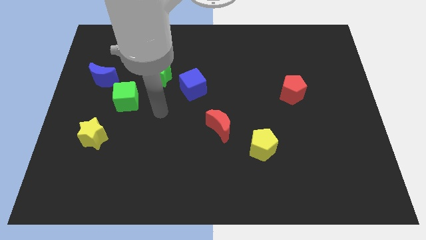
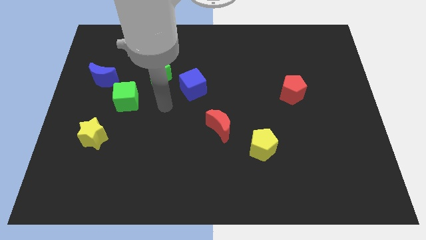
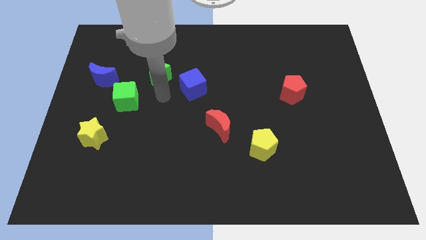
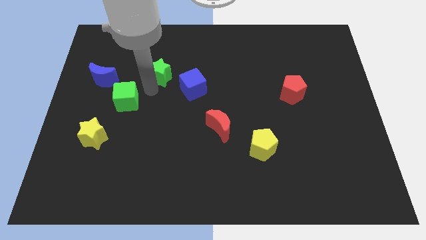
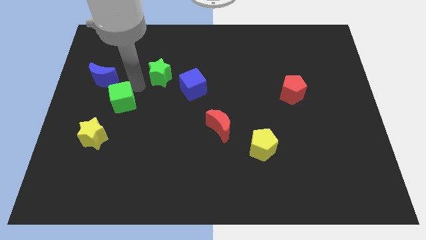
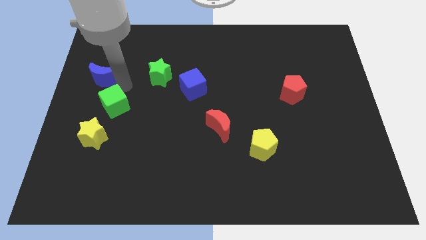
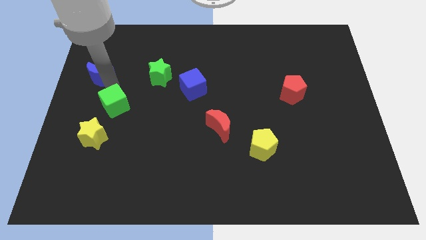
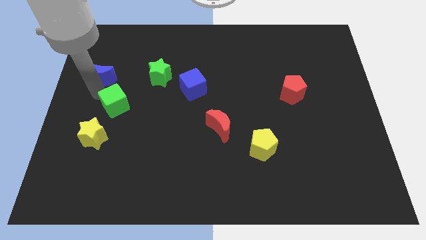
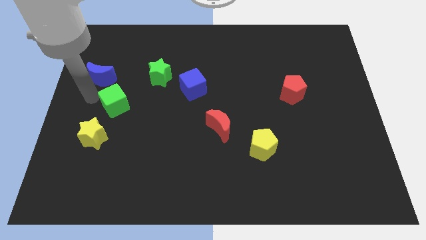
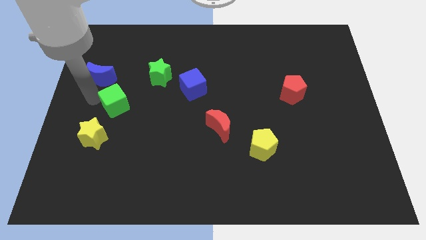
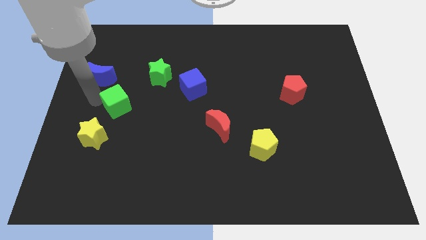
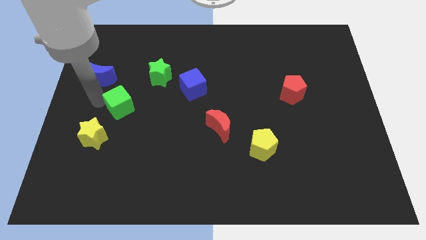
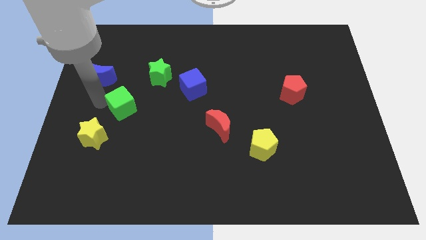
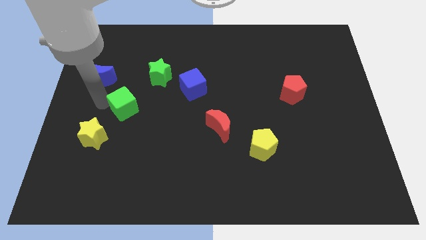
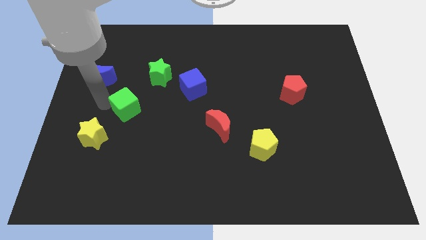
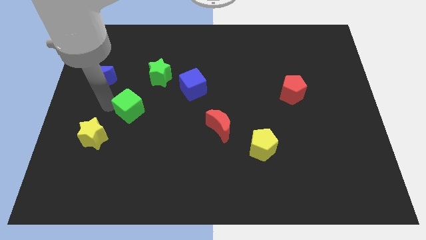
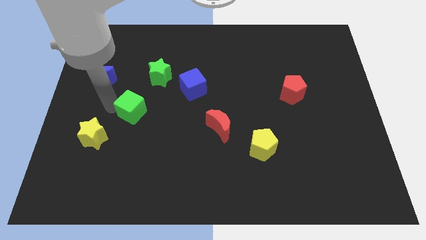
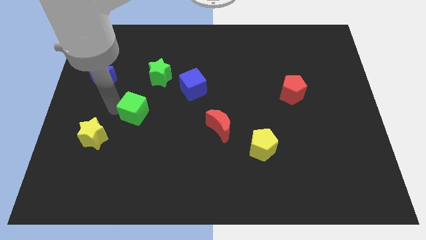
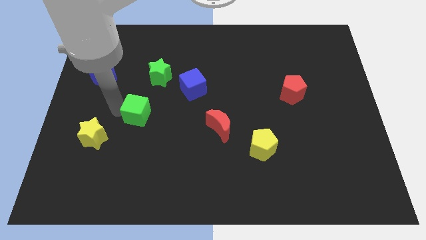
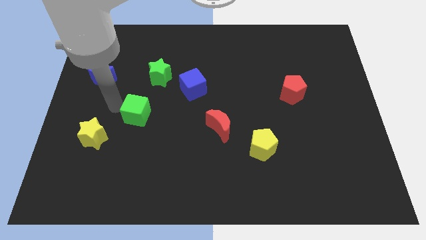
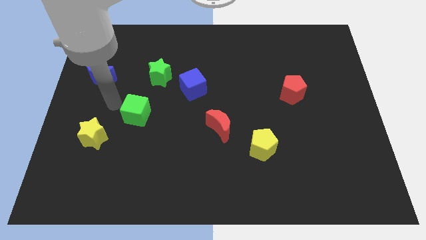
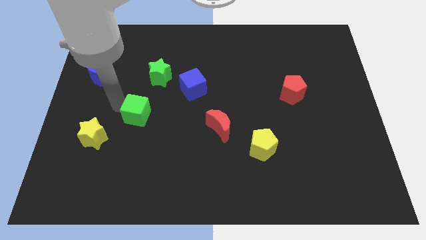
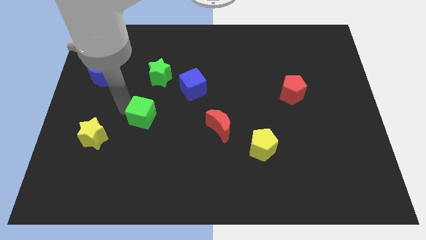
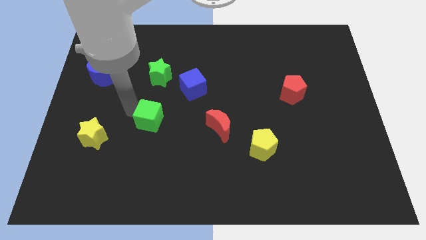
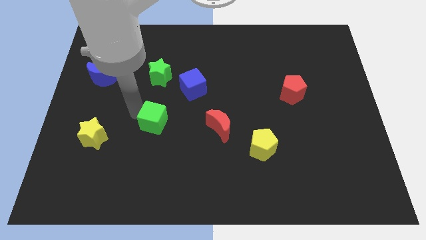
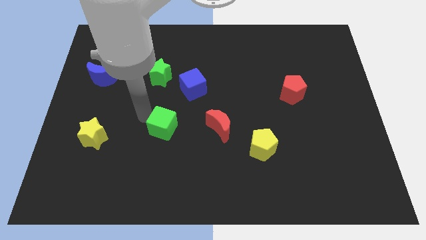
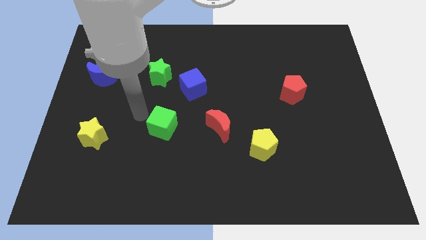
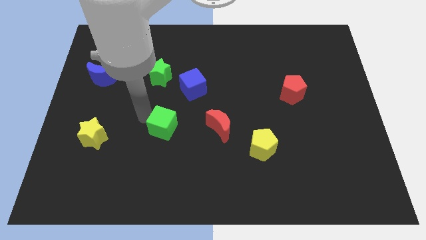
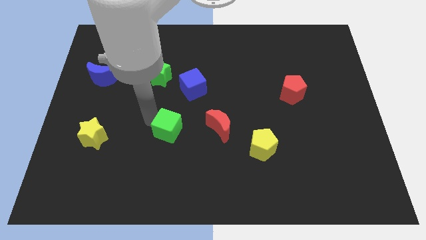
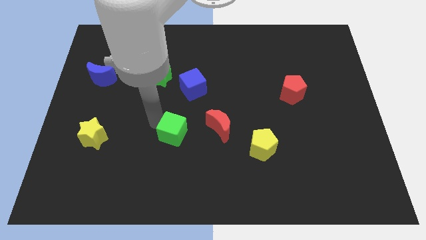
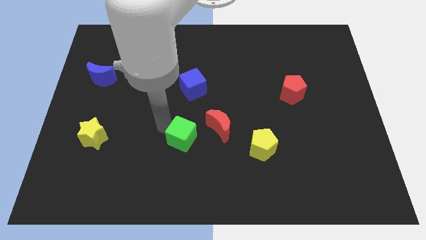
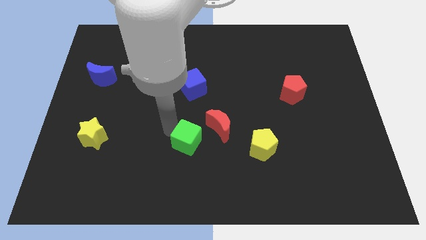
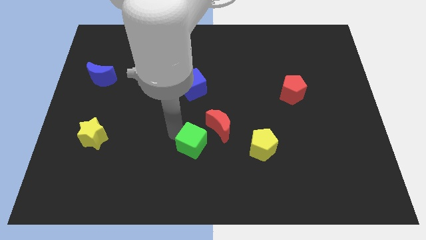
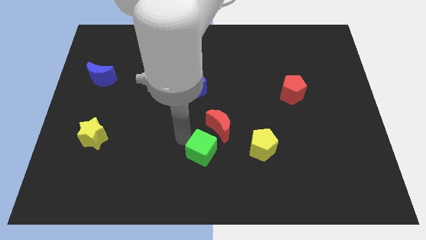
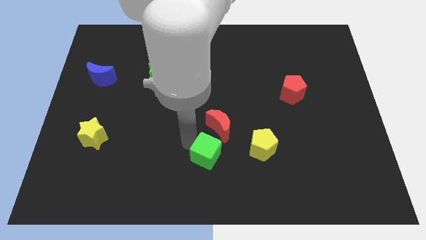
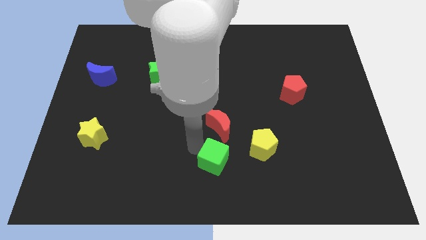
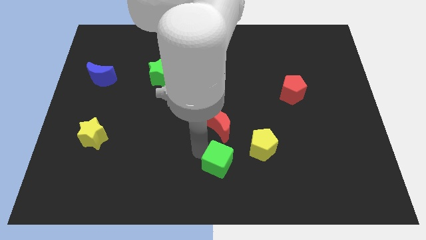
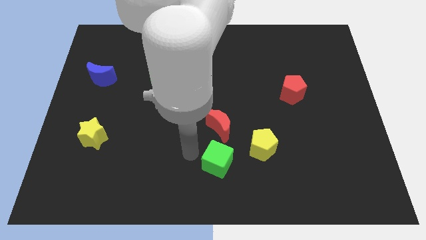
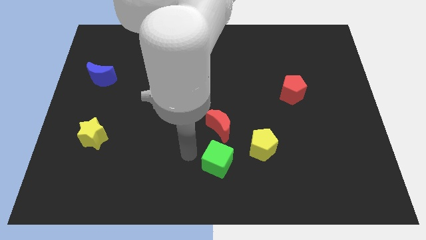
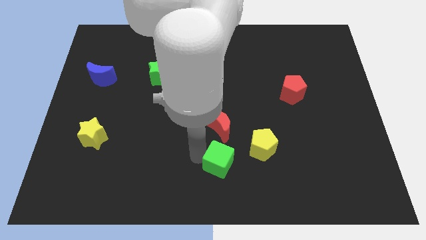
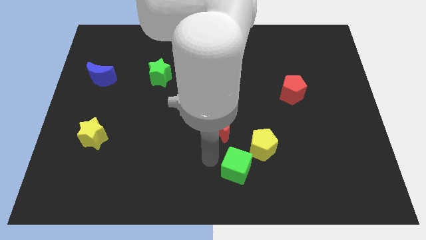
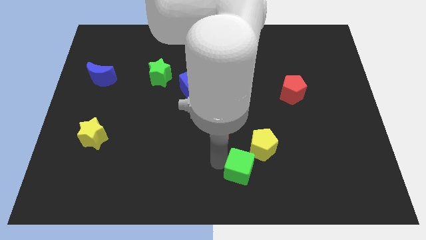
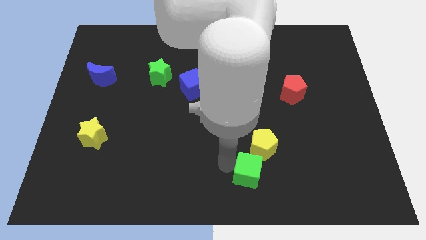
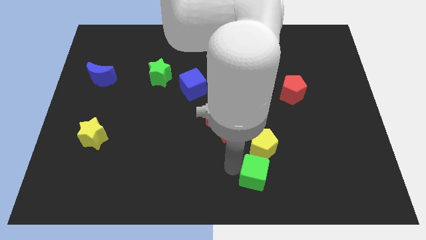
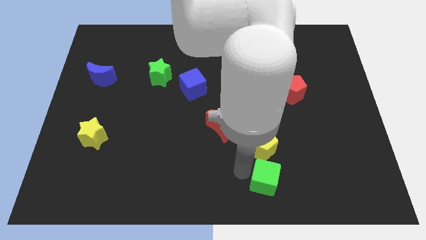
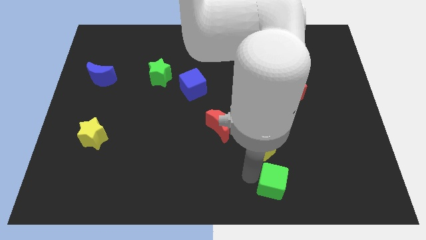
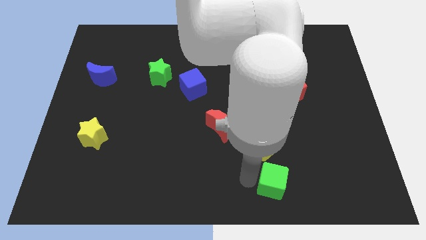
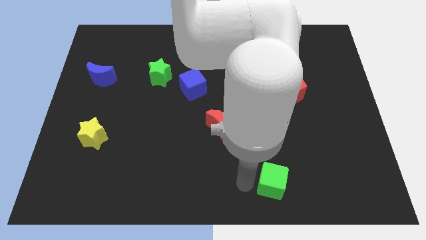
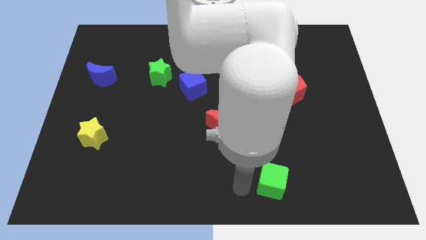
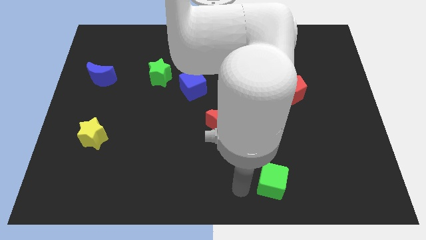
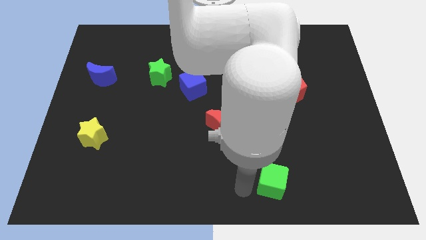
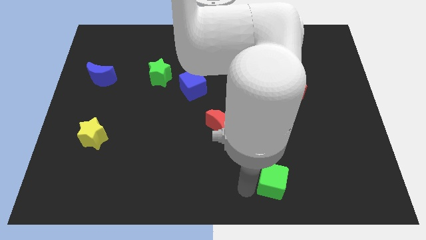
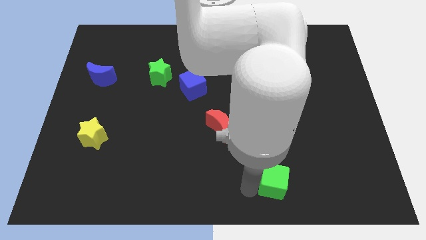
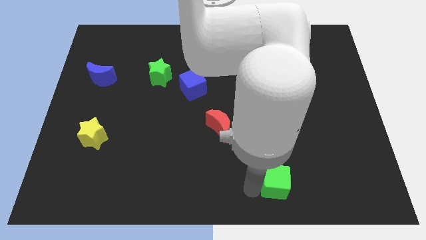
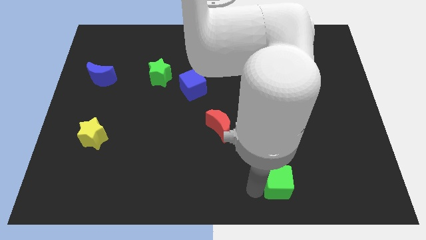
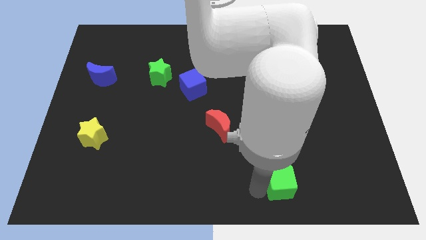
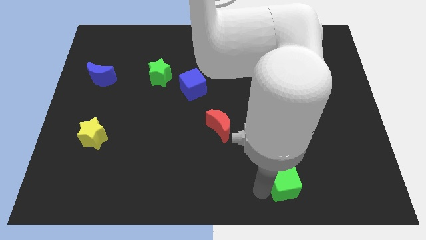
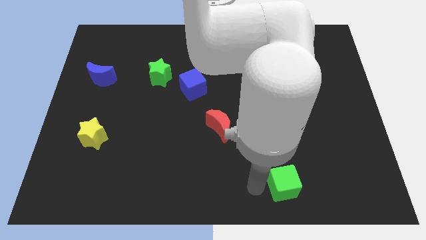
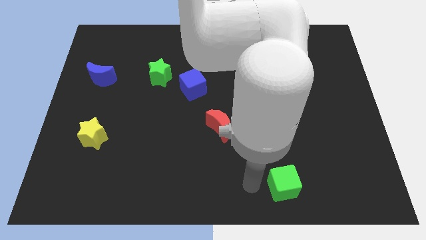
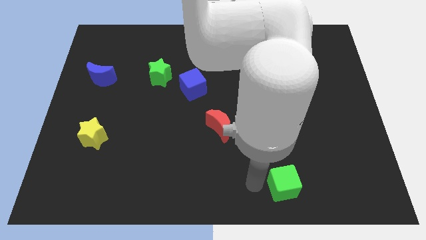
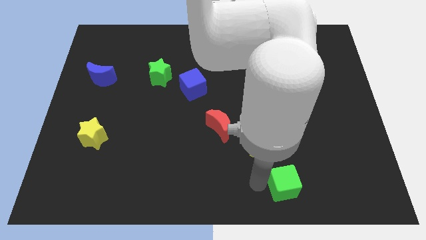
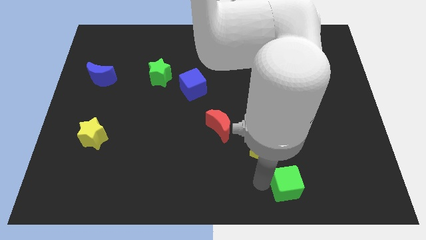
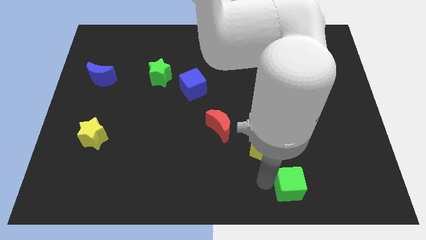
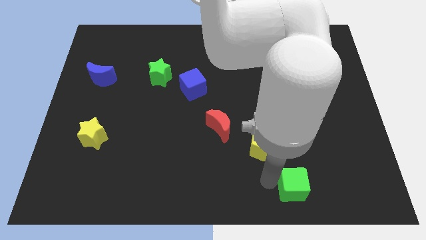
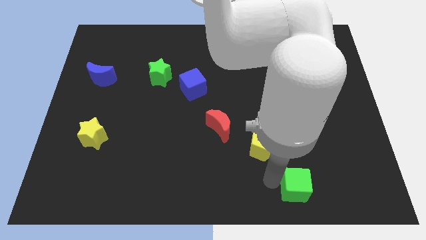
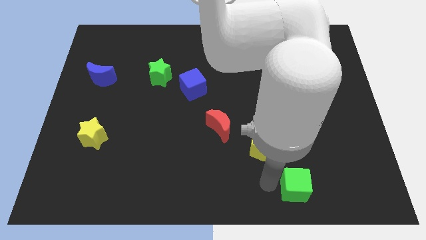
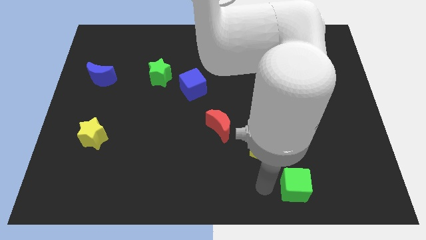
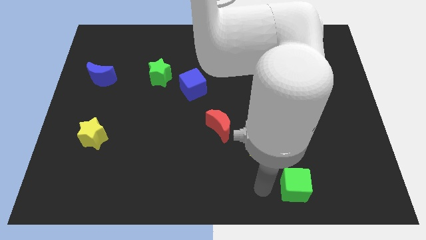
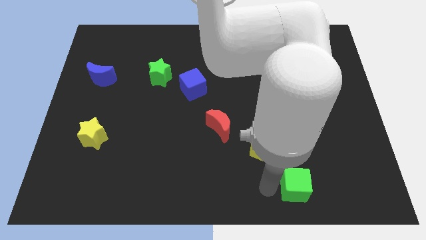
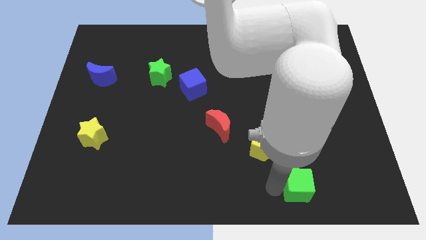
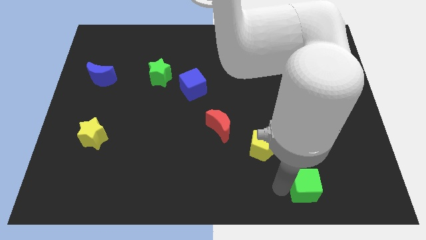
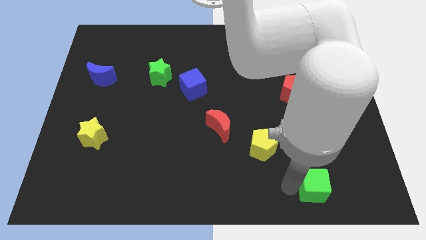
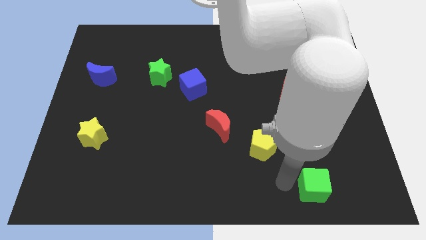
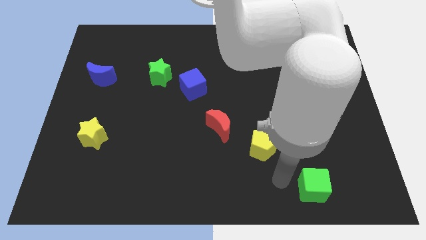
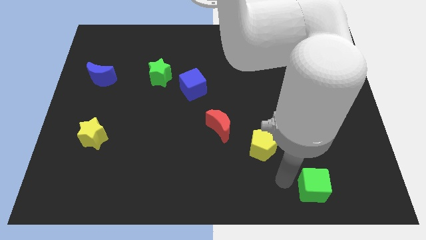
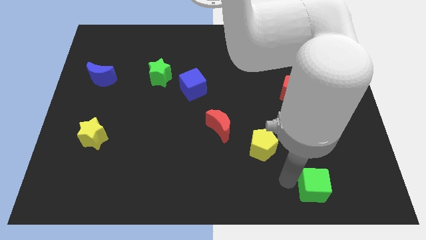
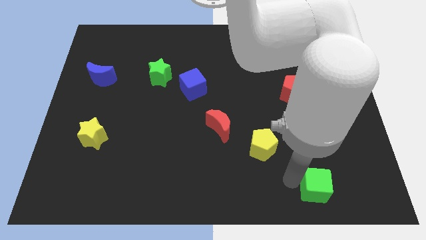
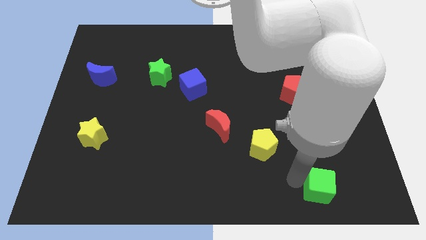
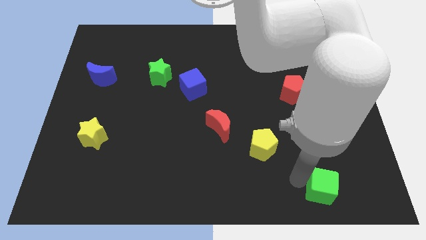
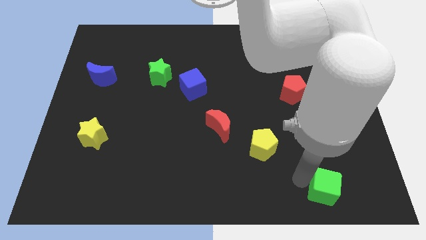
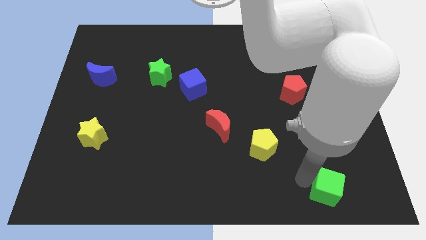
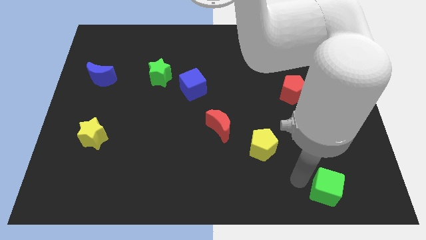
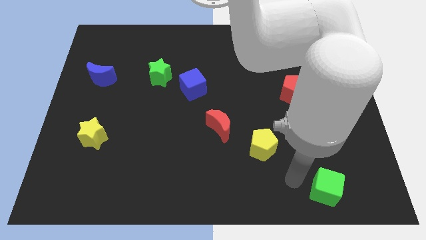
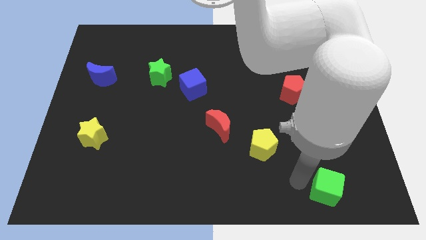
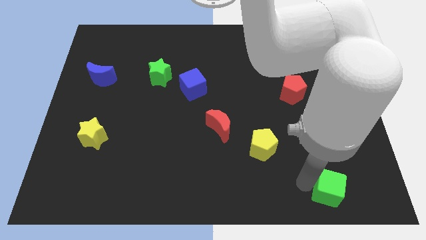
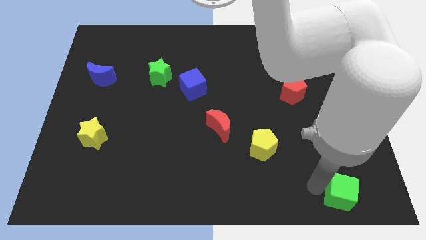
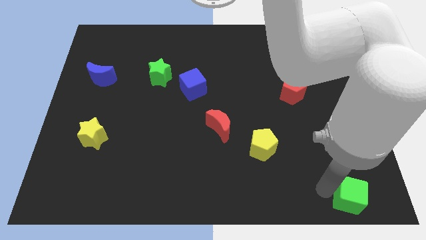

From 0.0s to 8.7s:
push the green cube to the bottom right
